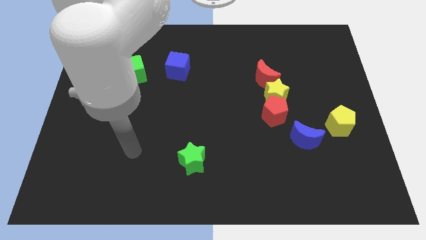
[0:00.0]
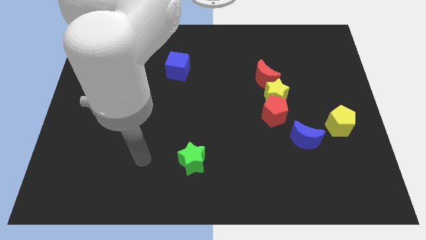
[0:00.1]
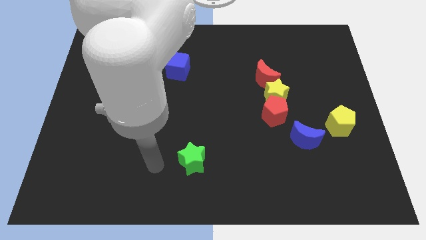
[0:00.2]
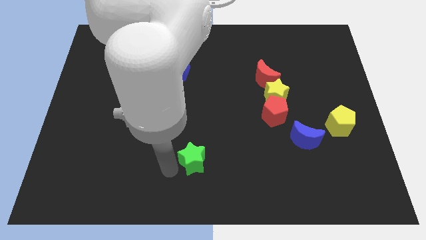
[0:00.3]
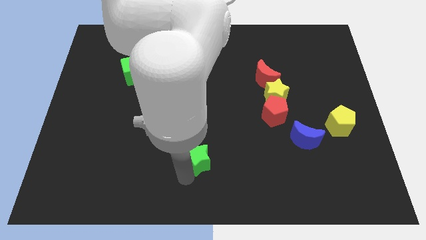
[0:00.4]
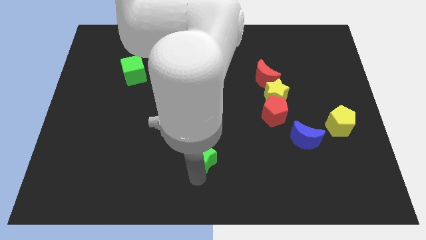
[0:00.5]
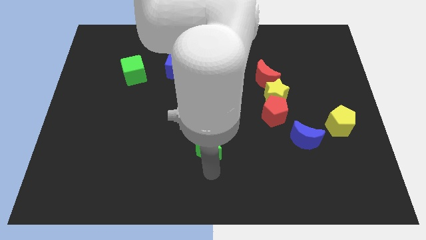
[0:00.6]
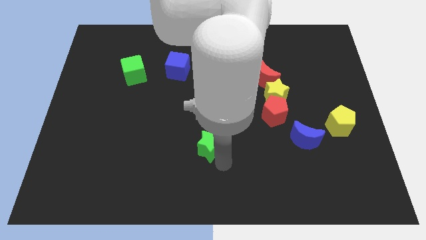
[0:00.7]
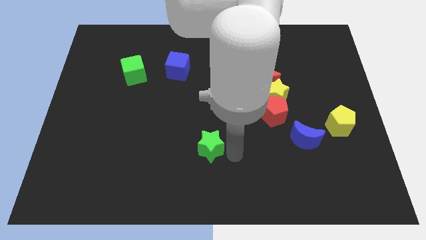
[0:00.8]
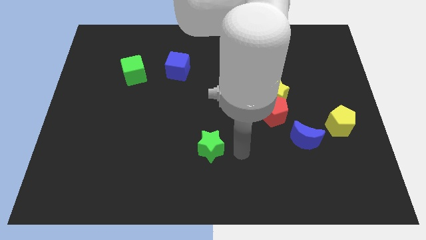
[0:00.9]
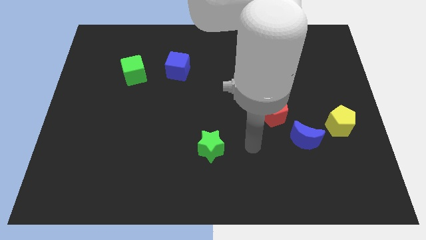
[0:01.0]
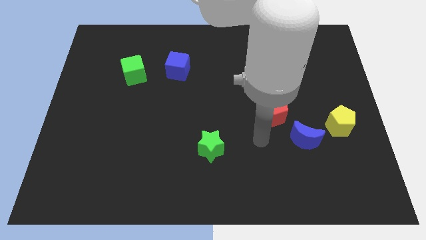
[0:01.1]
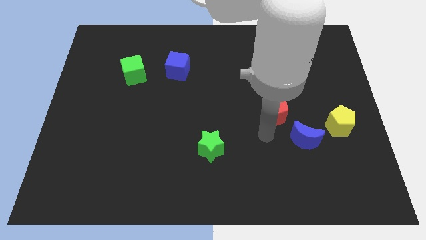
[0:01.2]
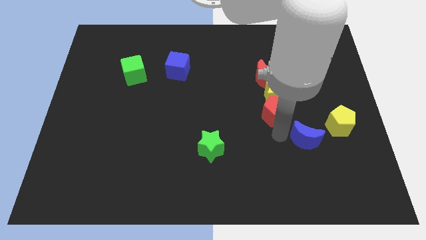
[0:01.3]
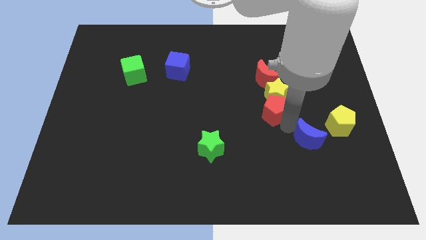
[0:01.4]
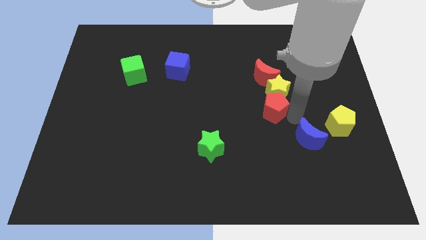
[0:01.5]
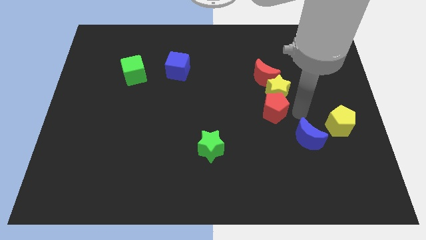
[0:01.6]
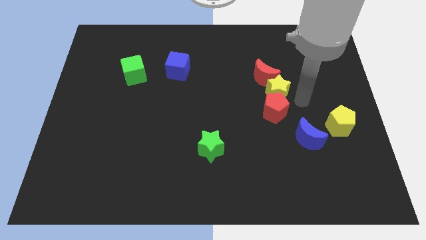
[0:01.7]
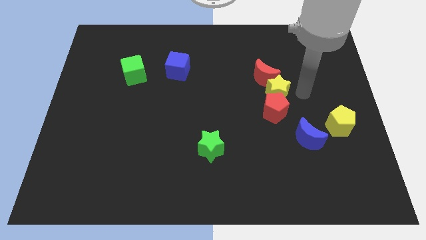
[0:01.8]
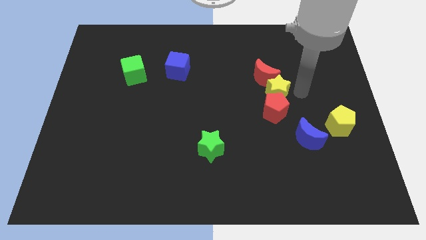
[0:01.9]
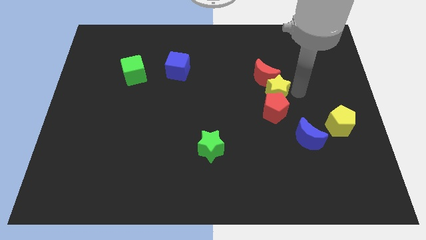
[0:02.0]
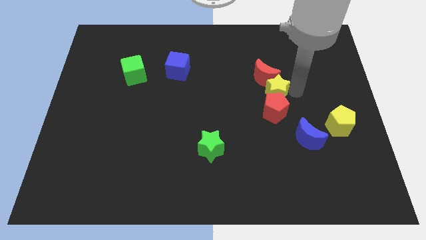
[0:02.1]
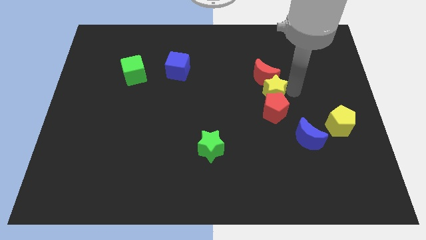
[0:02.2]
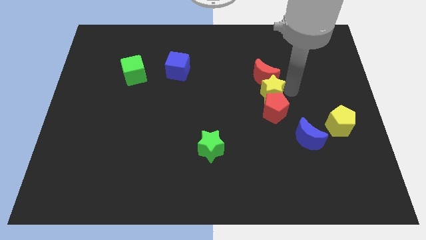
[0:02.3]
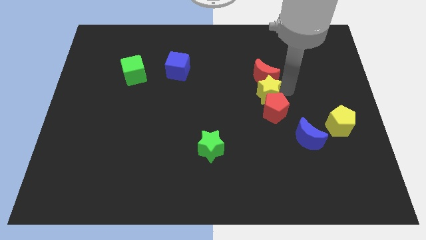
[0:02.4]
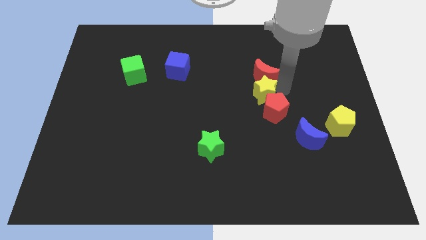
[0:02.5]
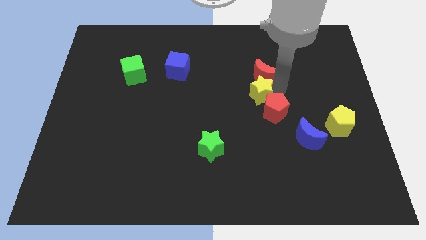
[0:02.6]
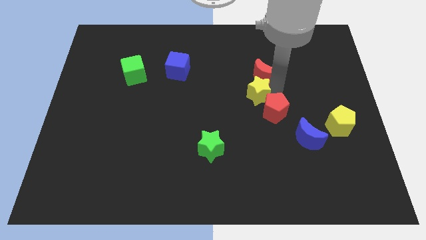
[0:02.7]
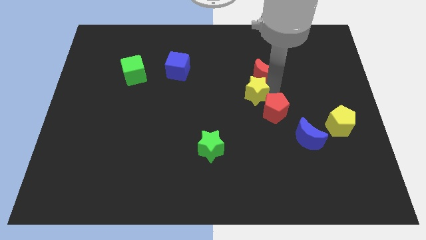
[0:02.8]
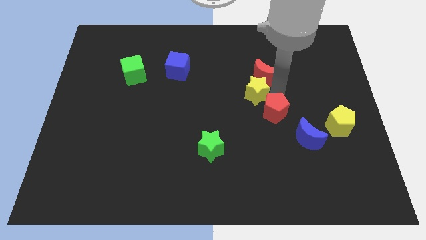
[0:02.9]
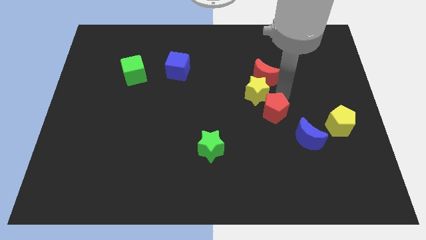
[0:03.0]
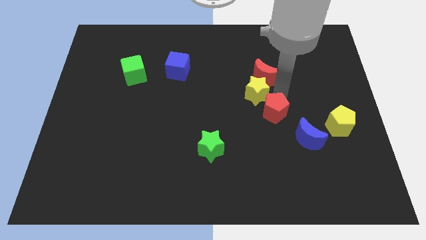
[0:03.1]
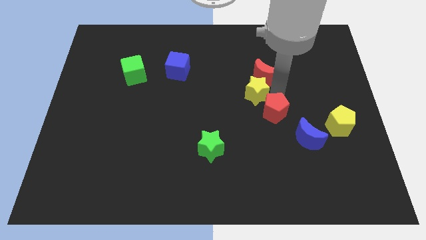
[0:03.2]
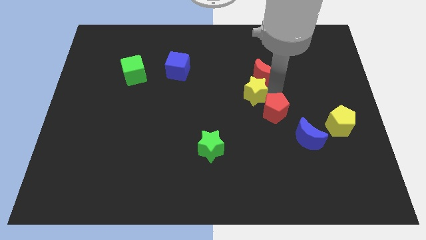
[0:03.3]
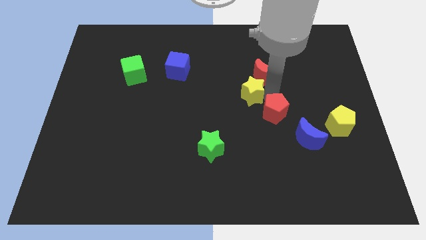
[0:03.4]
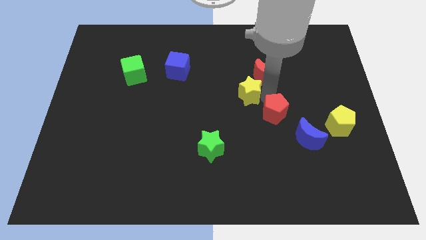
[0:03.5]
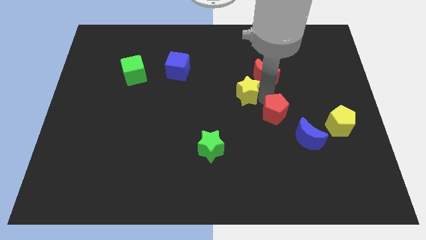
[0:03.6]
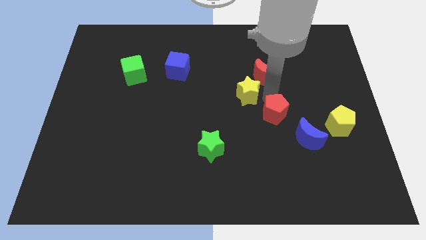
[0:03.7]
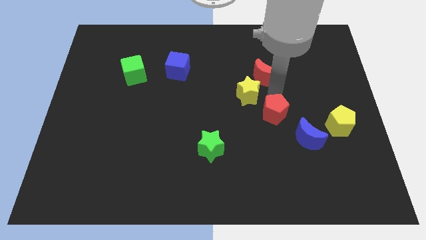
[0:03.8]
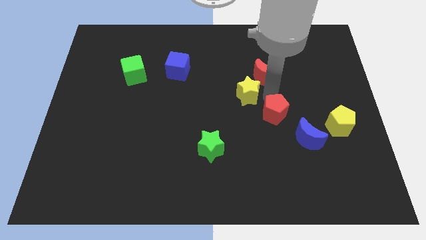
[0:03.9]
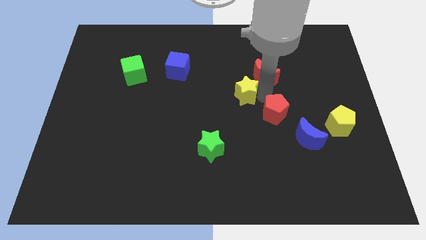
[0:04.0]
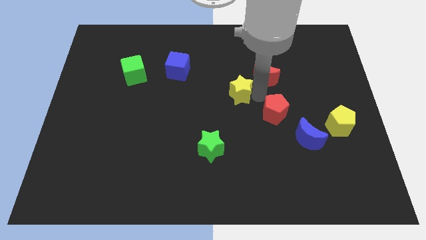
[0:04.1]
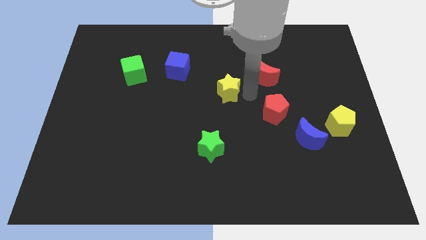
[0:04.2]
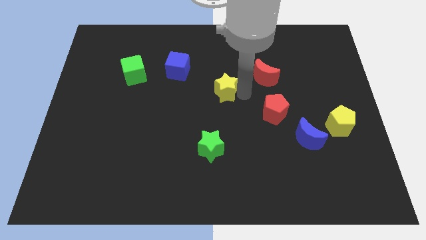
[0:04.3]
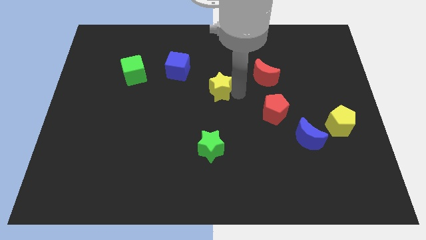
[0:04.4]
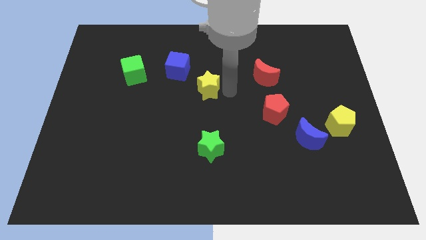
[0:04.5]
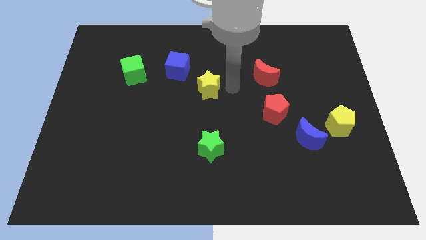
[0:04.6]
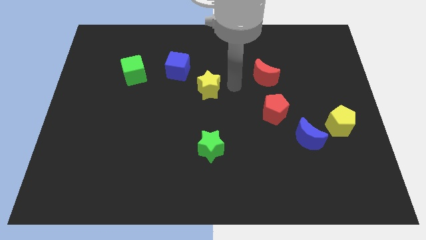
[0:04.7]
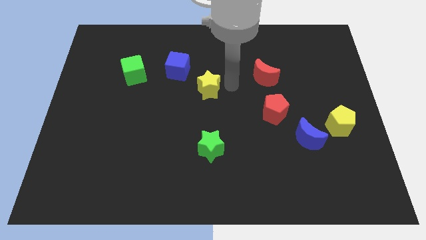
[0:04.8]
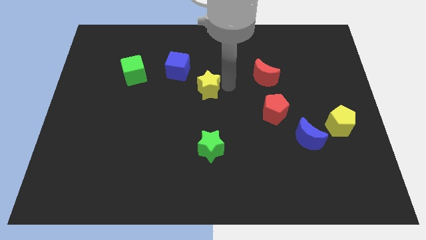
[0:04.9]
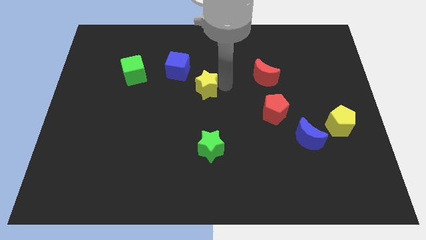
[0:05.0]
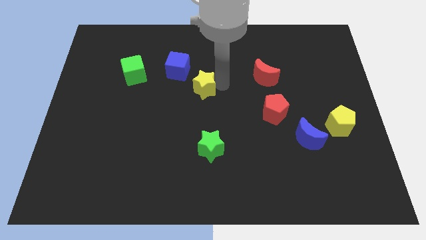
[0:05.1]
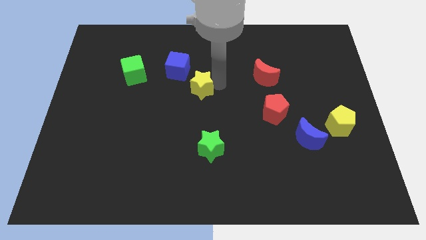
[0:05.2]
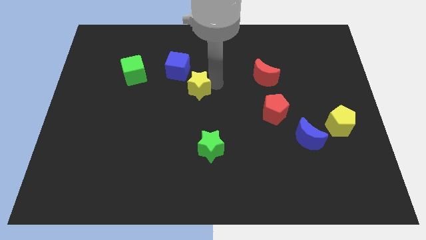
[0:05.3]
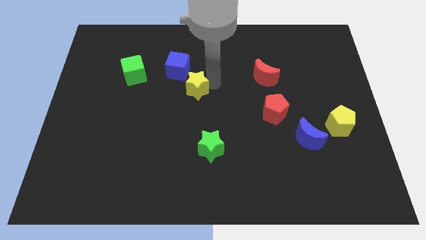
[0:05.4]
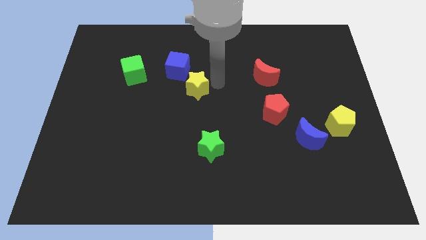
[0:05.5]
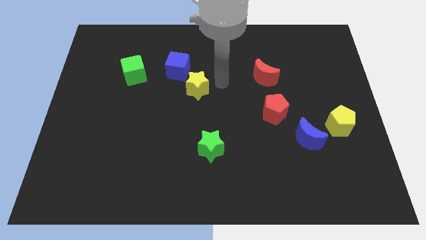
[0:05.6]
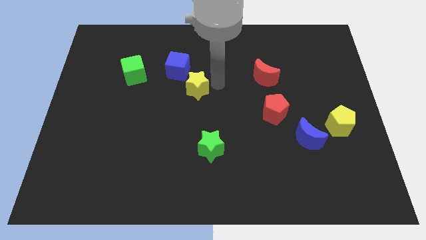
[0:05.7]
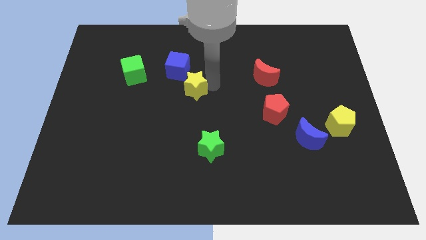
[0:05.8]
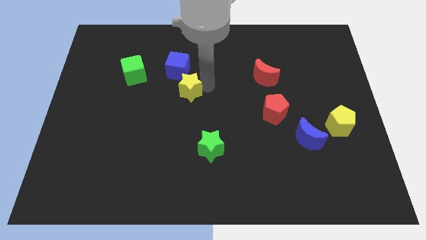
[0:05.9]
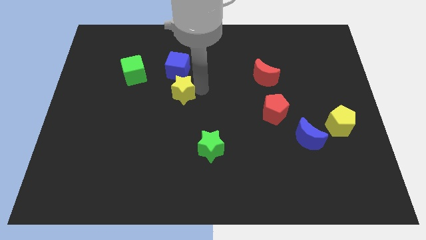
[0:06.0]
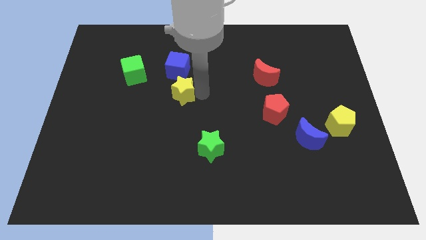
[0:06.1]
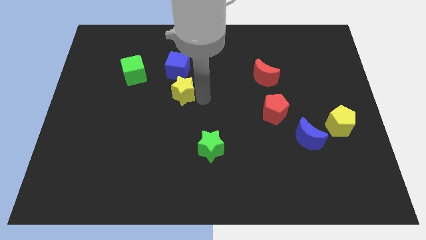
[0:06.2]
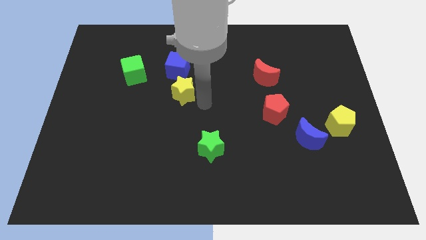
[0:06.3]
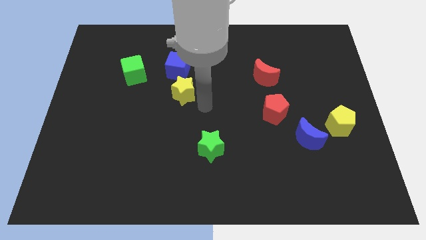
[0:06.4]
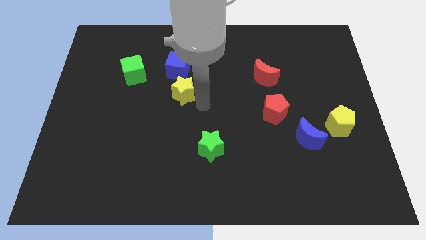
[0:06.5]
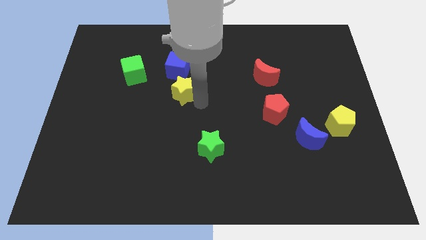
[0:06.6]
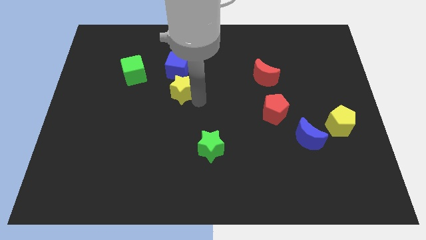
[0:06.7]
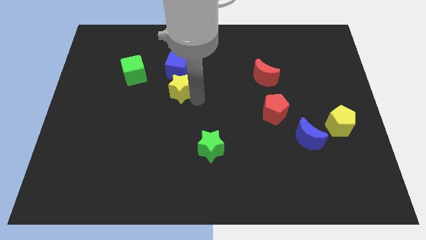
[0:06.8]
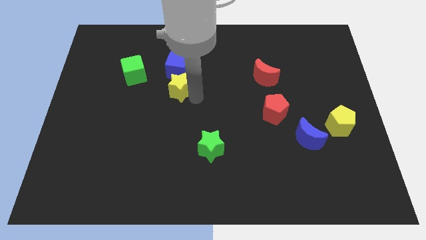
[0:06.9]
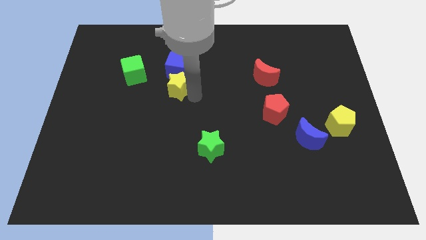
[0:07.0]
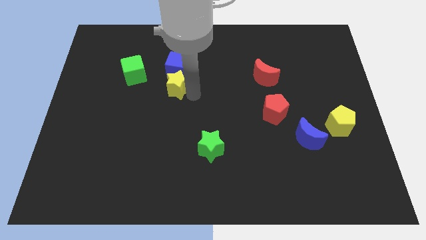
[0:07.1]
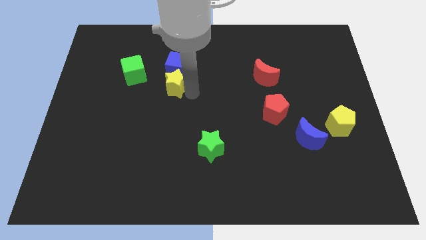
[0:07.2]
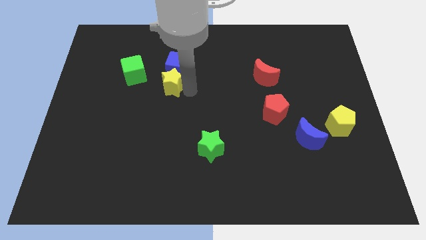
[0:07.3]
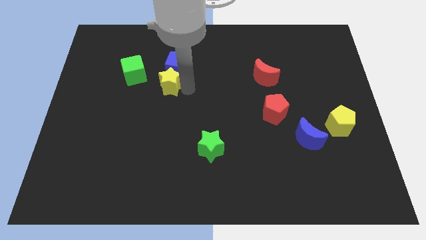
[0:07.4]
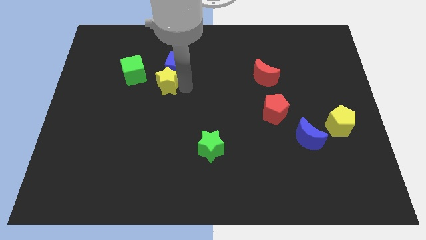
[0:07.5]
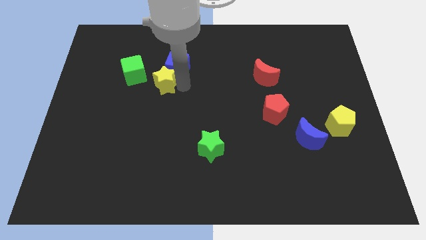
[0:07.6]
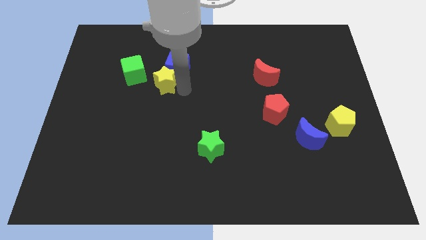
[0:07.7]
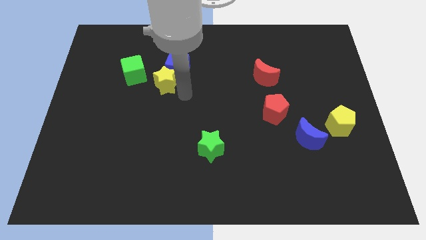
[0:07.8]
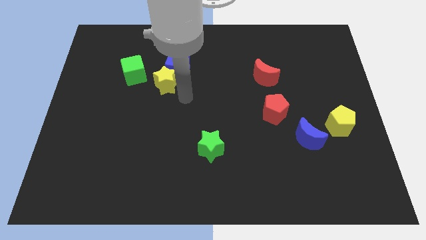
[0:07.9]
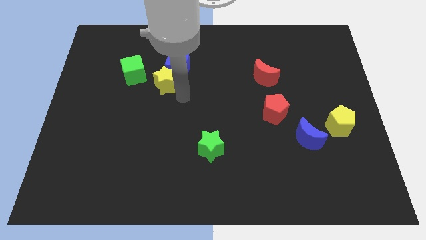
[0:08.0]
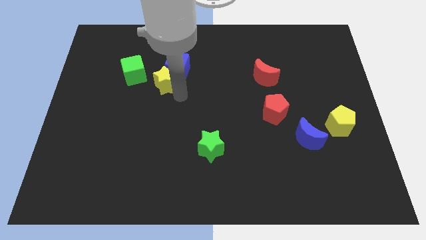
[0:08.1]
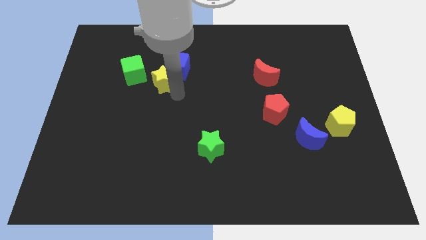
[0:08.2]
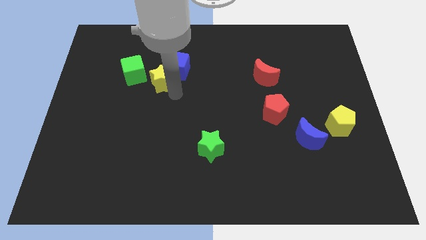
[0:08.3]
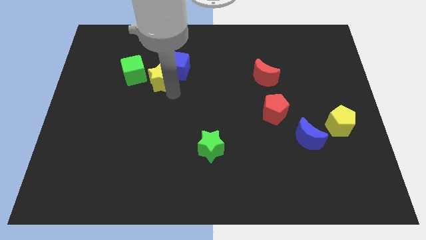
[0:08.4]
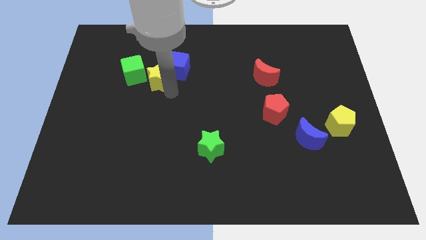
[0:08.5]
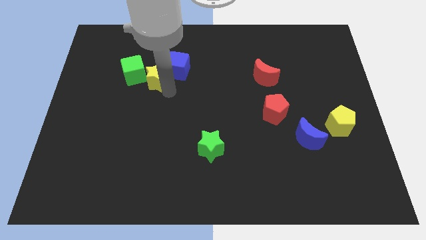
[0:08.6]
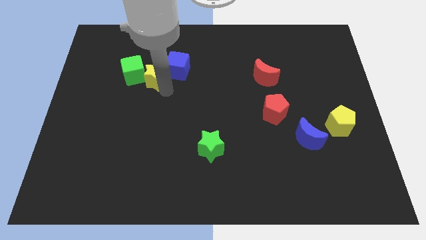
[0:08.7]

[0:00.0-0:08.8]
move the yellow star close to the green cube
